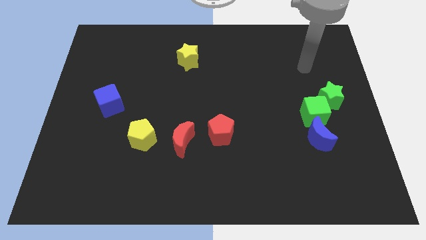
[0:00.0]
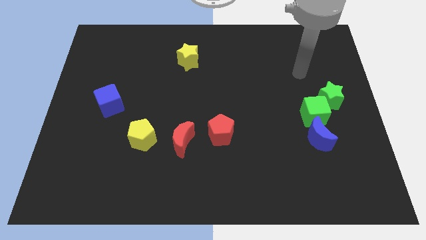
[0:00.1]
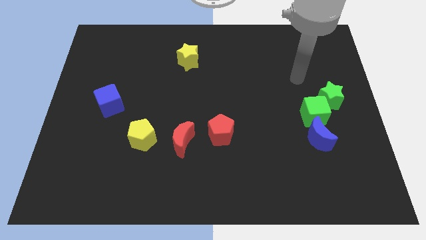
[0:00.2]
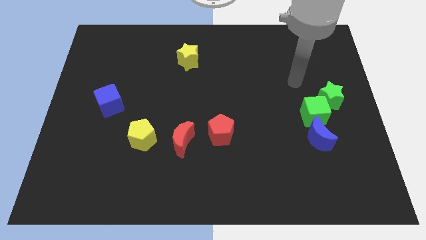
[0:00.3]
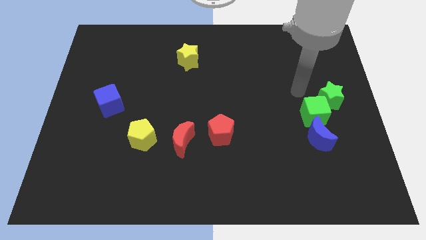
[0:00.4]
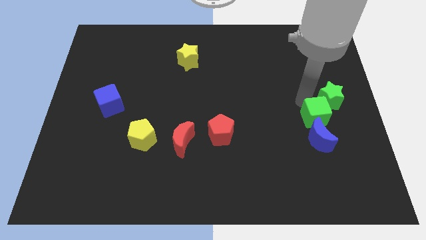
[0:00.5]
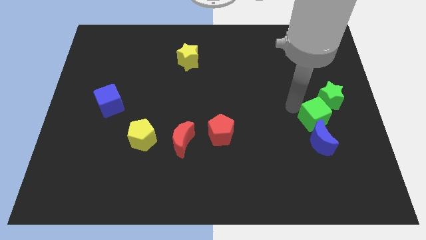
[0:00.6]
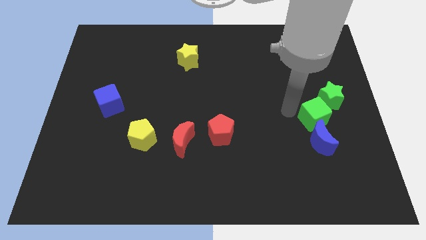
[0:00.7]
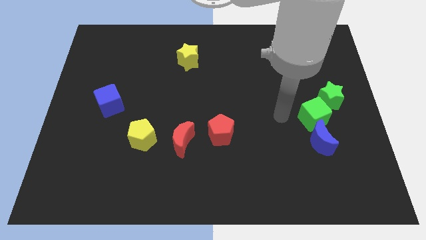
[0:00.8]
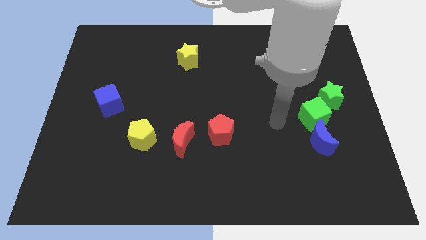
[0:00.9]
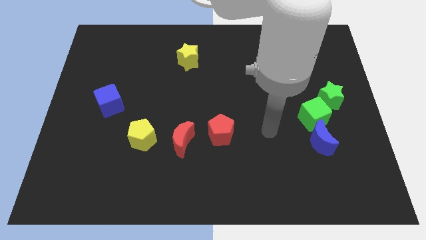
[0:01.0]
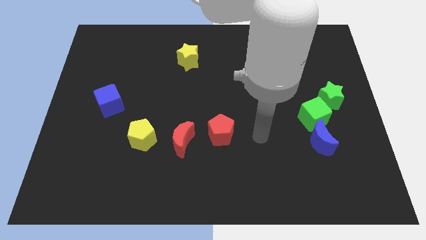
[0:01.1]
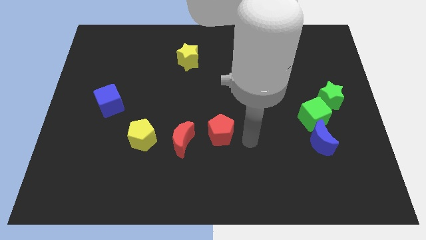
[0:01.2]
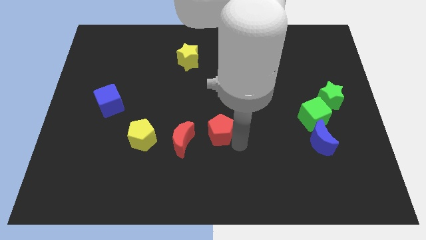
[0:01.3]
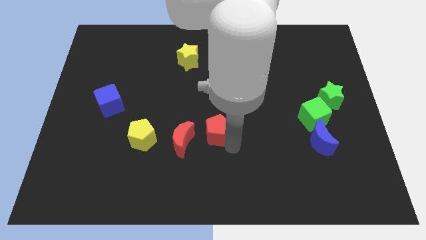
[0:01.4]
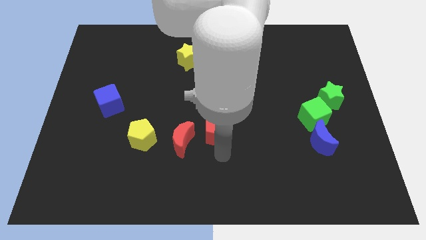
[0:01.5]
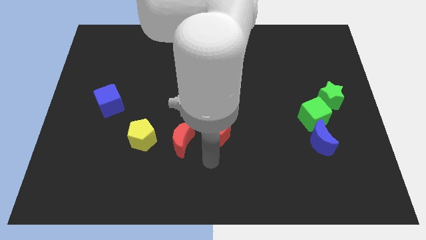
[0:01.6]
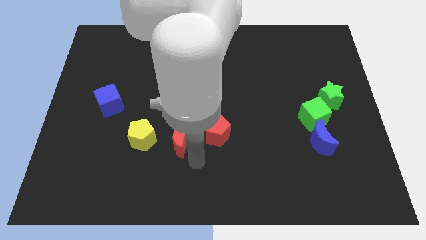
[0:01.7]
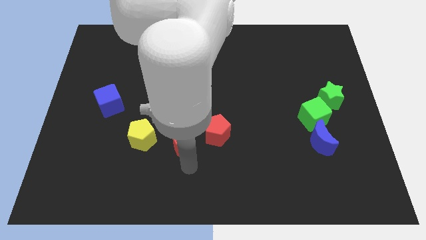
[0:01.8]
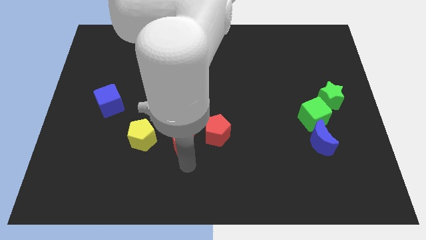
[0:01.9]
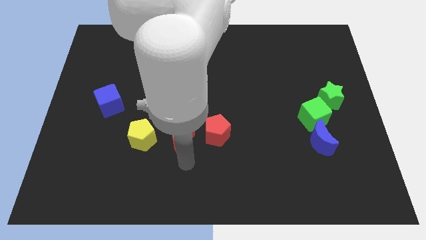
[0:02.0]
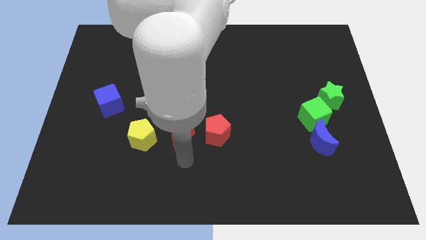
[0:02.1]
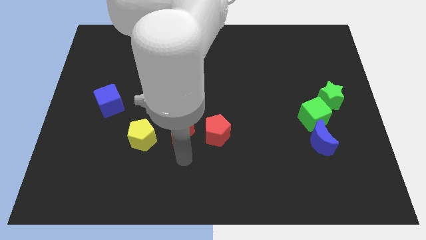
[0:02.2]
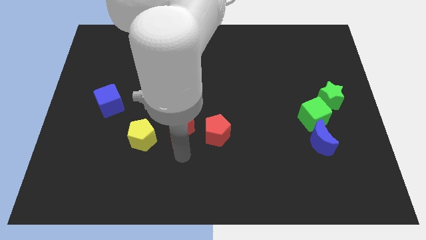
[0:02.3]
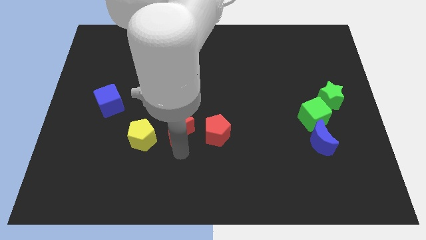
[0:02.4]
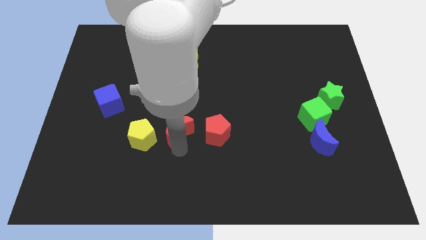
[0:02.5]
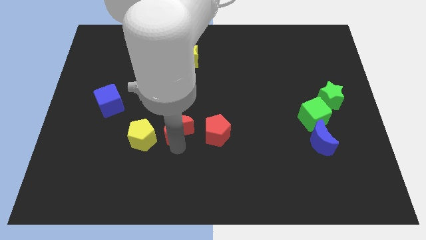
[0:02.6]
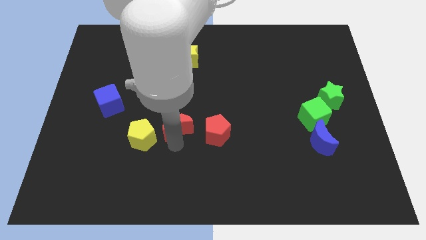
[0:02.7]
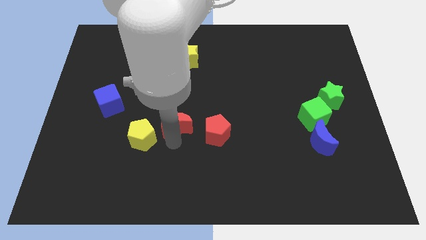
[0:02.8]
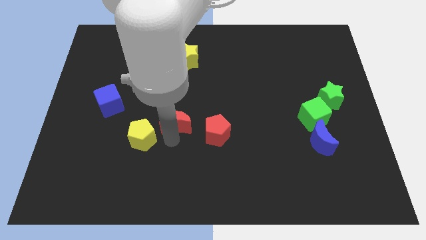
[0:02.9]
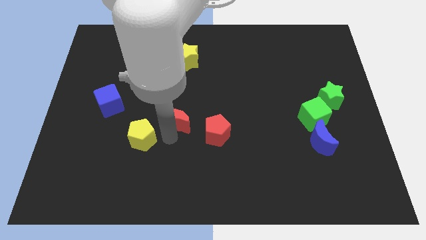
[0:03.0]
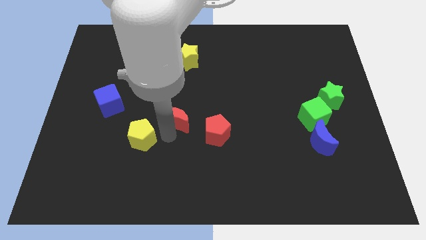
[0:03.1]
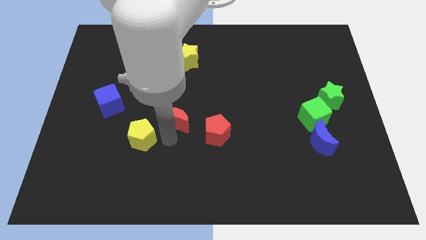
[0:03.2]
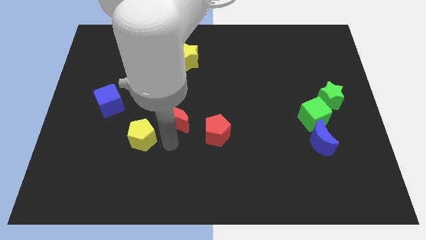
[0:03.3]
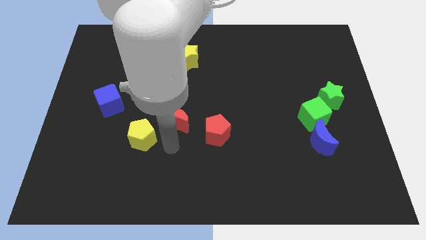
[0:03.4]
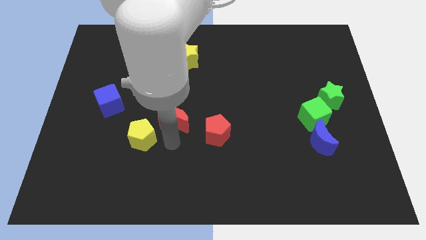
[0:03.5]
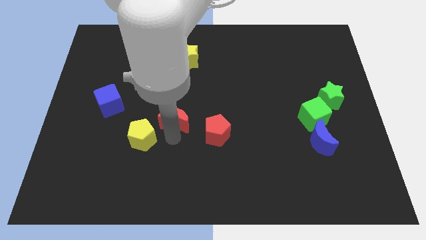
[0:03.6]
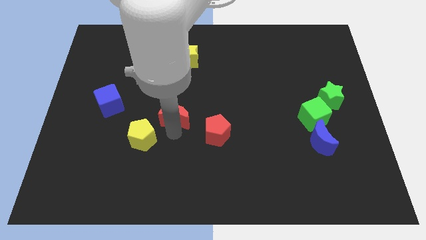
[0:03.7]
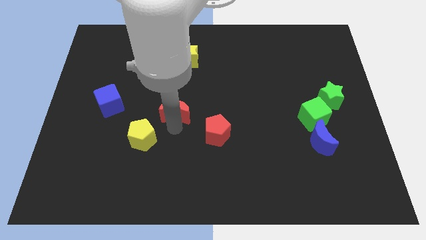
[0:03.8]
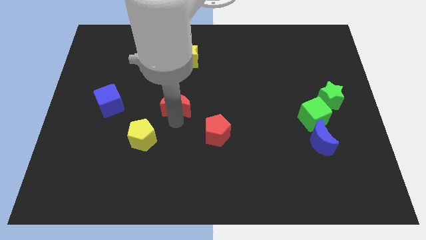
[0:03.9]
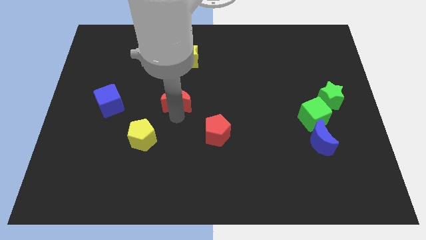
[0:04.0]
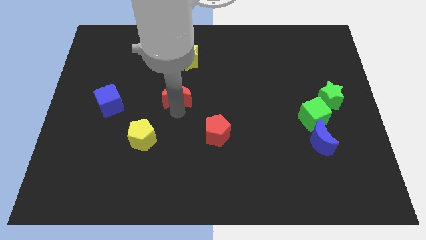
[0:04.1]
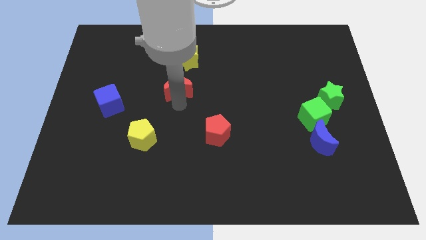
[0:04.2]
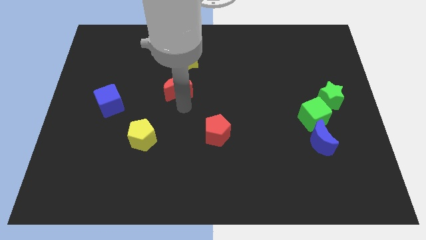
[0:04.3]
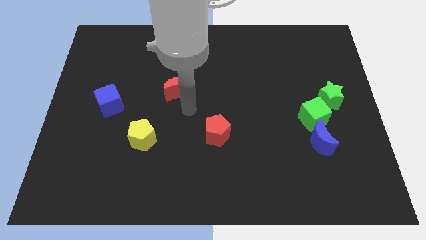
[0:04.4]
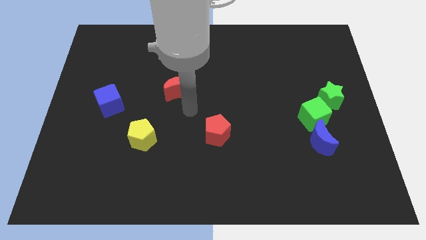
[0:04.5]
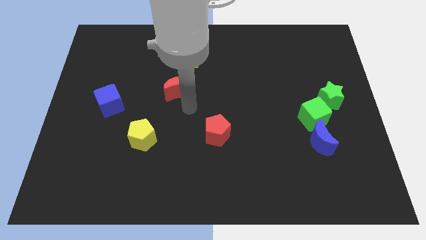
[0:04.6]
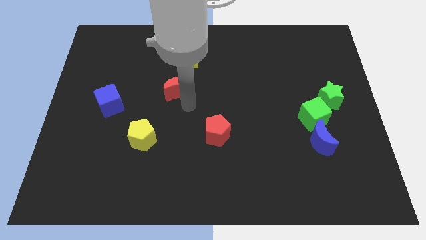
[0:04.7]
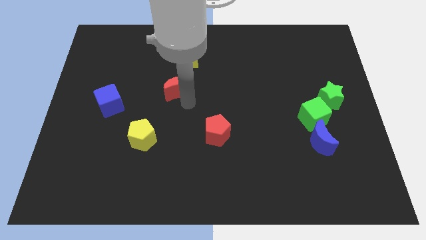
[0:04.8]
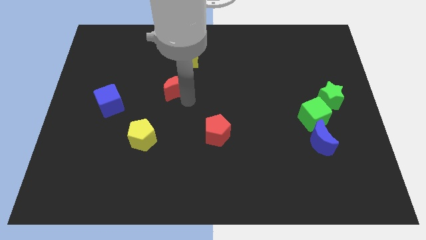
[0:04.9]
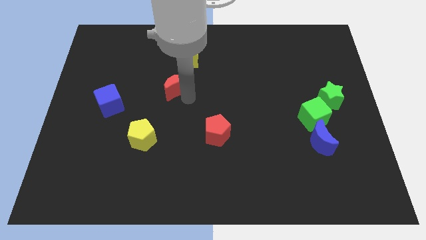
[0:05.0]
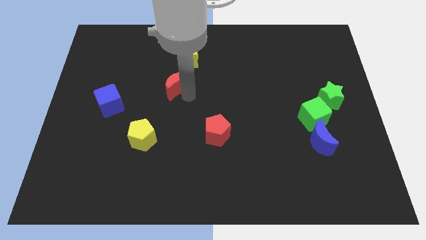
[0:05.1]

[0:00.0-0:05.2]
slide the red moon to the bottom left side of the yellow star
